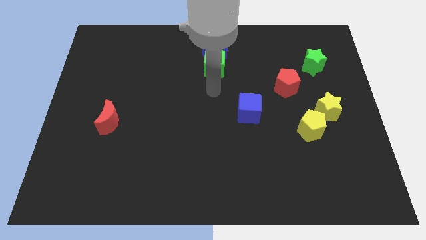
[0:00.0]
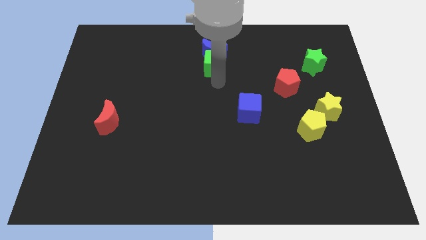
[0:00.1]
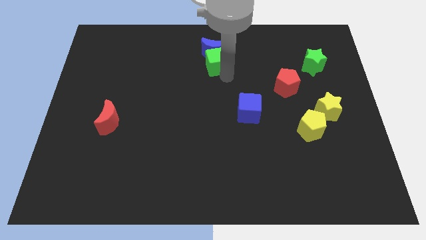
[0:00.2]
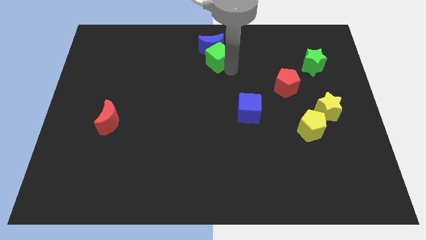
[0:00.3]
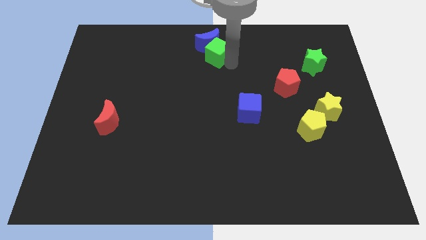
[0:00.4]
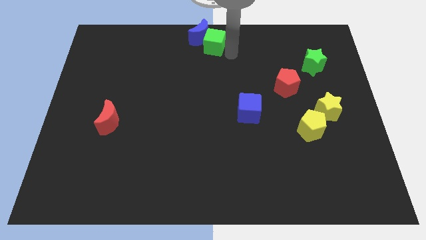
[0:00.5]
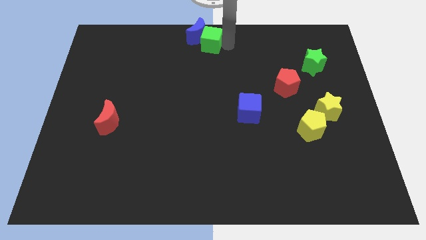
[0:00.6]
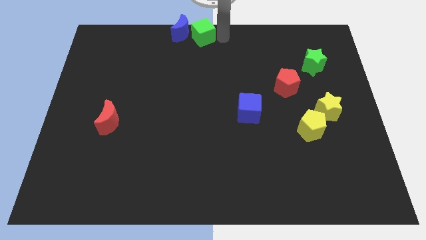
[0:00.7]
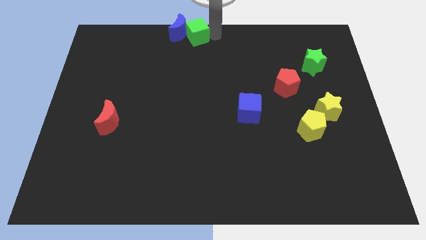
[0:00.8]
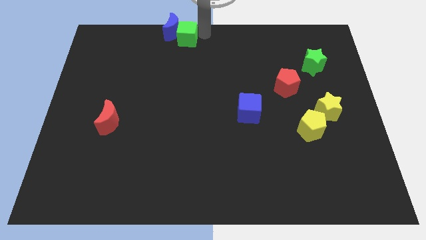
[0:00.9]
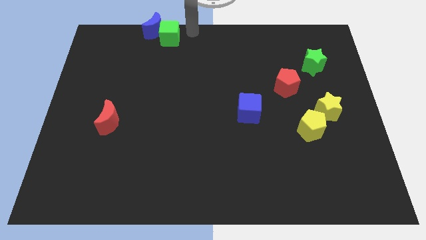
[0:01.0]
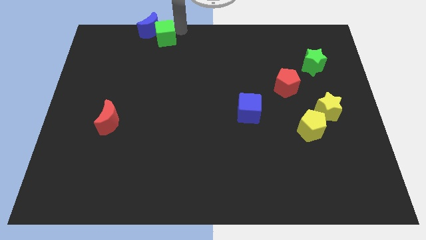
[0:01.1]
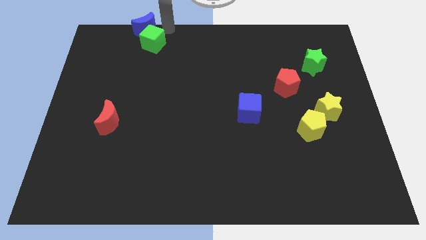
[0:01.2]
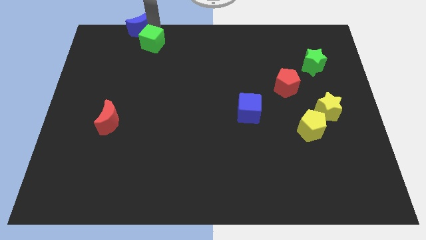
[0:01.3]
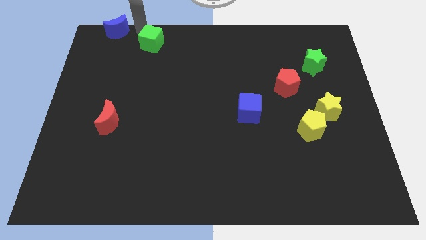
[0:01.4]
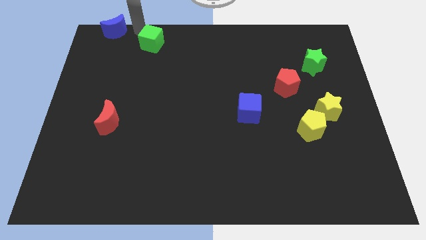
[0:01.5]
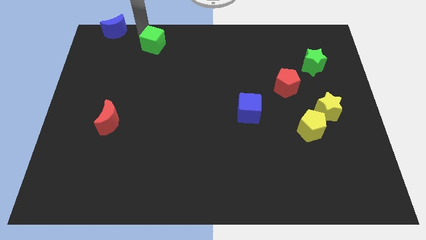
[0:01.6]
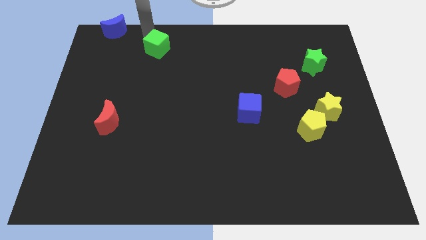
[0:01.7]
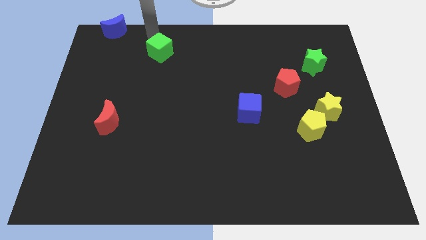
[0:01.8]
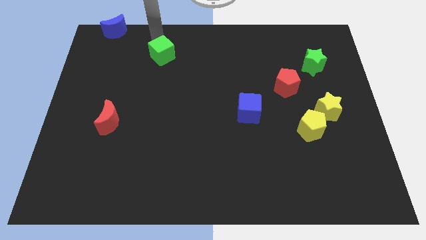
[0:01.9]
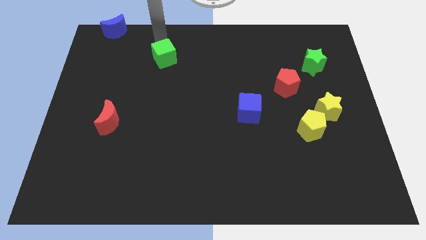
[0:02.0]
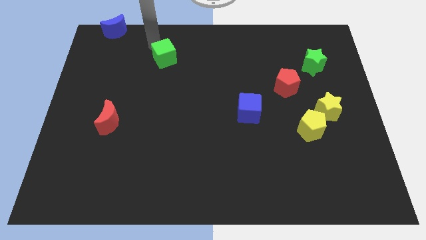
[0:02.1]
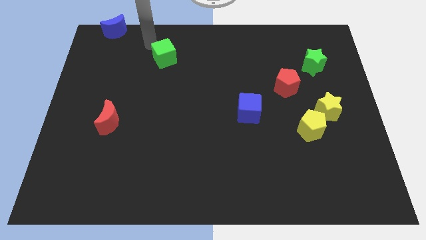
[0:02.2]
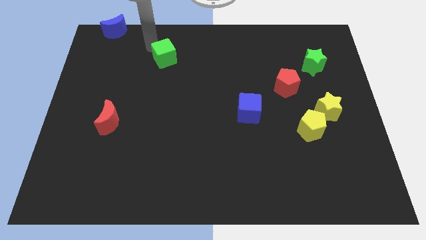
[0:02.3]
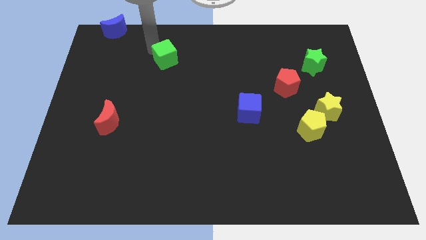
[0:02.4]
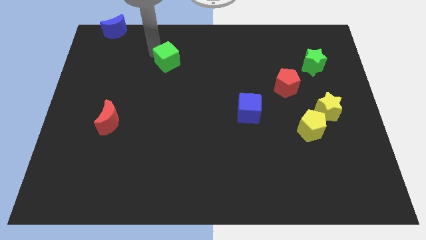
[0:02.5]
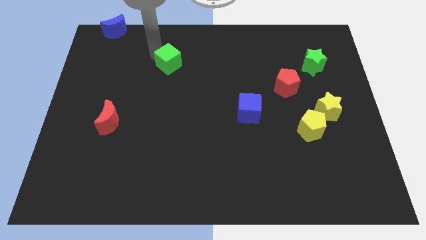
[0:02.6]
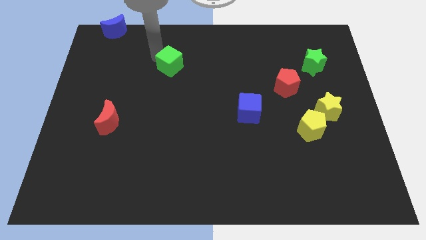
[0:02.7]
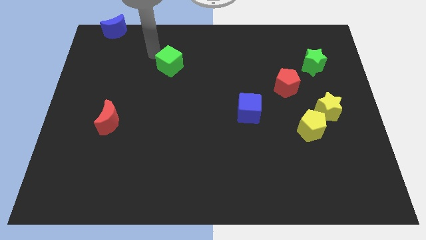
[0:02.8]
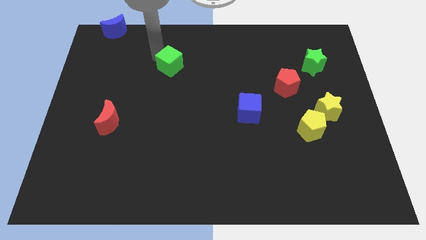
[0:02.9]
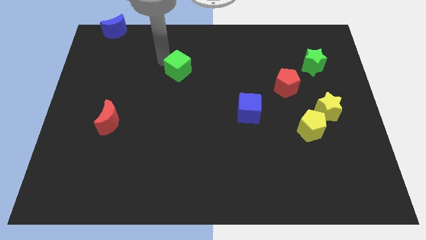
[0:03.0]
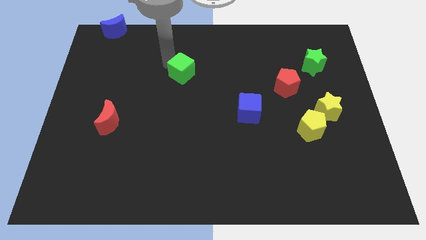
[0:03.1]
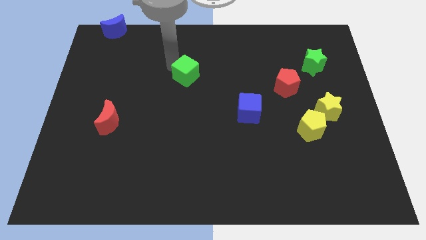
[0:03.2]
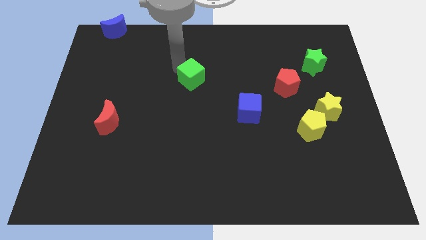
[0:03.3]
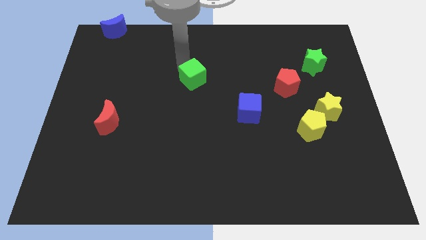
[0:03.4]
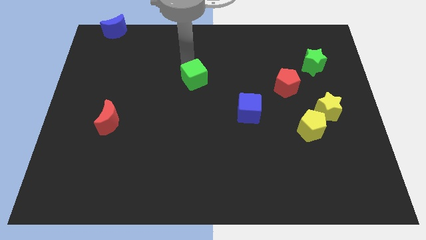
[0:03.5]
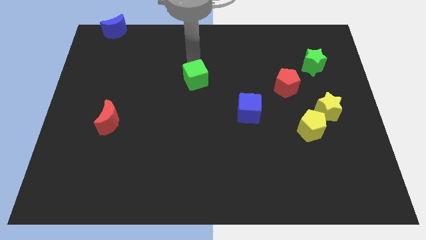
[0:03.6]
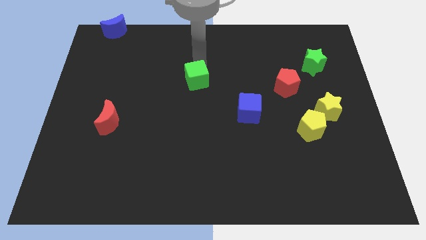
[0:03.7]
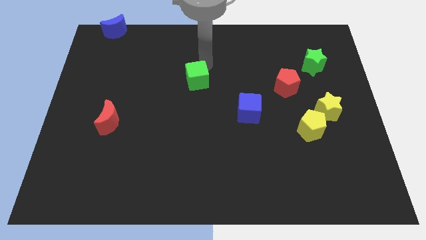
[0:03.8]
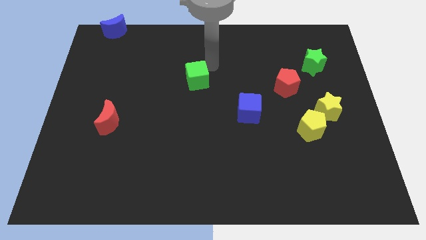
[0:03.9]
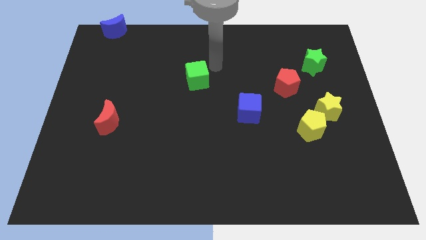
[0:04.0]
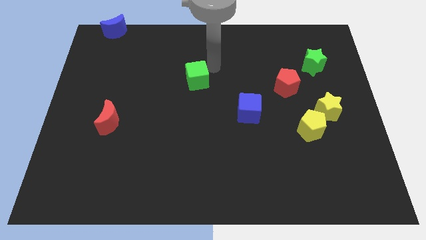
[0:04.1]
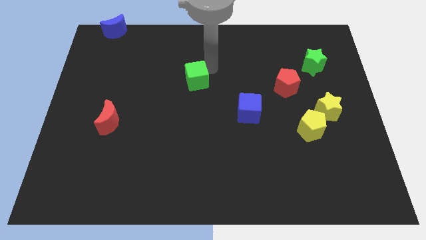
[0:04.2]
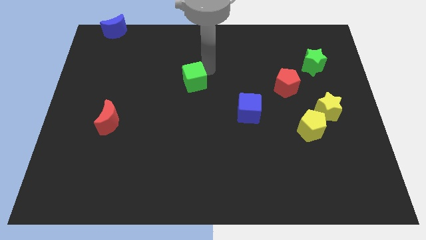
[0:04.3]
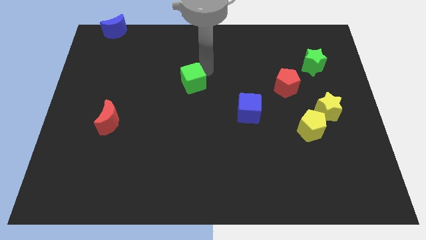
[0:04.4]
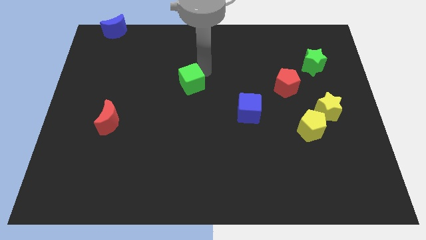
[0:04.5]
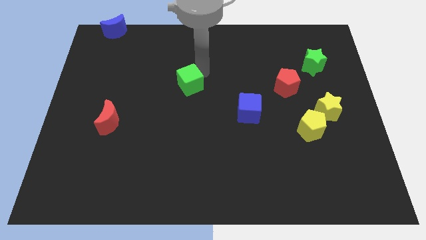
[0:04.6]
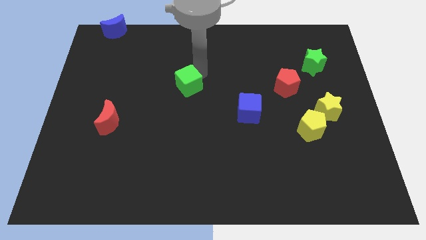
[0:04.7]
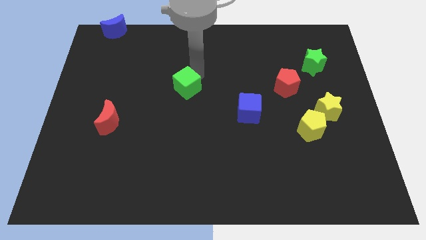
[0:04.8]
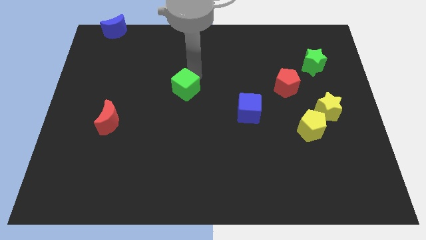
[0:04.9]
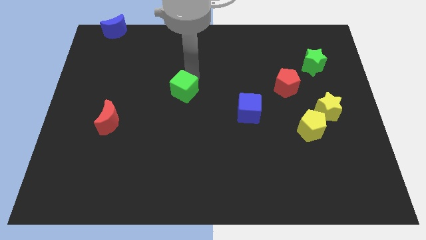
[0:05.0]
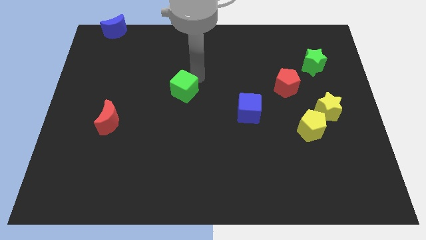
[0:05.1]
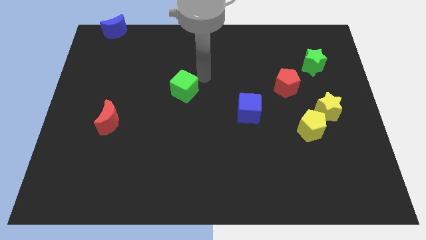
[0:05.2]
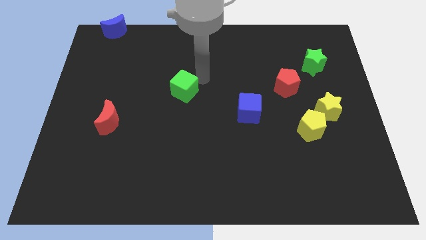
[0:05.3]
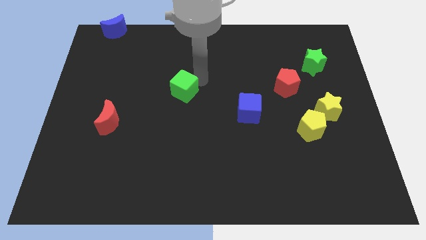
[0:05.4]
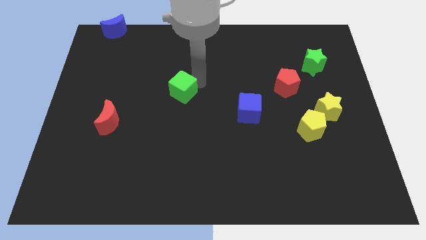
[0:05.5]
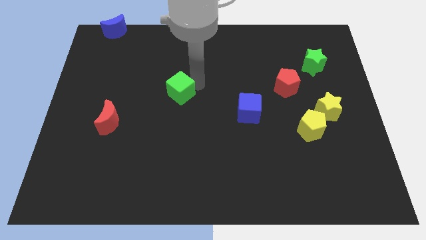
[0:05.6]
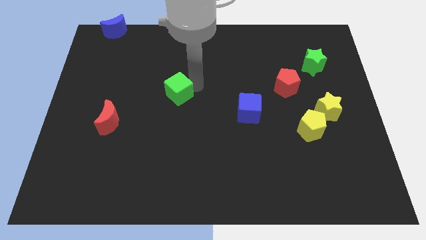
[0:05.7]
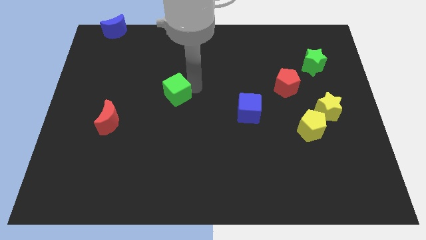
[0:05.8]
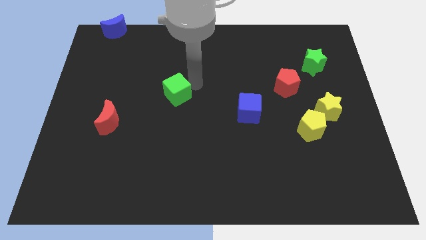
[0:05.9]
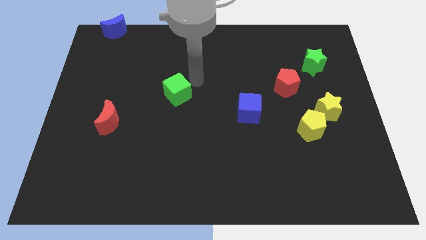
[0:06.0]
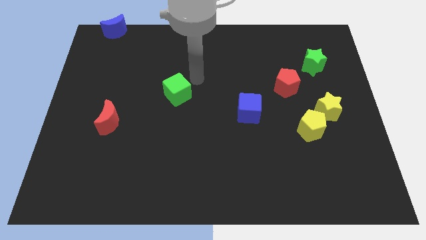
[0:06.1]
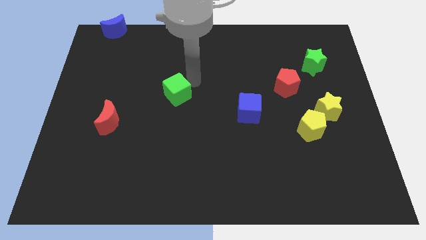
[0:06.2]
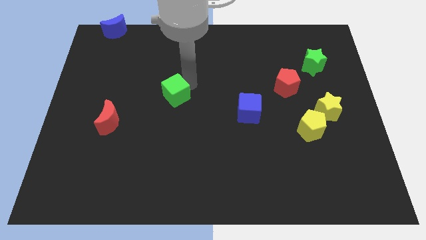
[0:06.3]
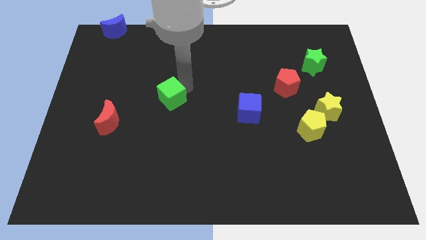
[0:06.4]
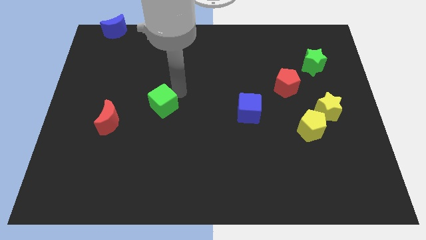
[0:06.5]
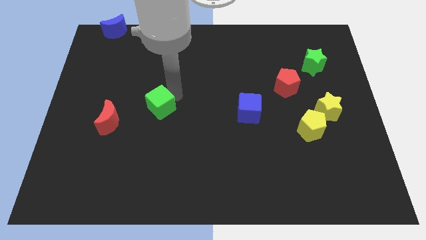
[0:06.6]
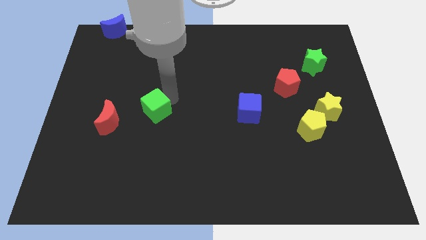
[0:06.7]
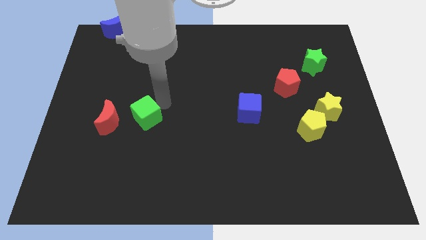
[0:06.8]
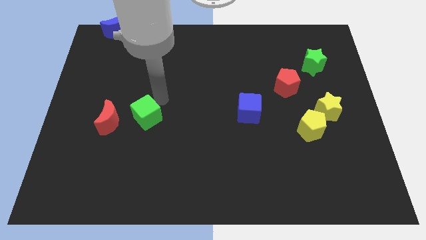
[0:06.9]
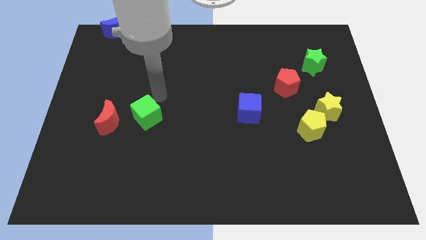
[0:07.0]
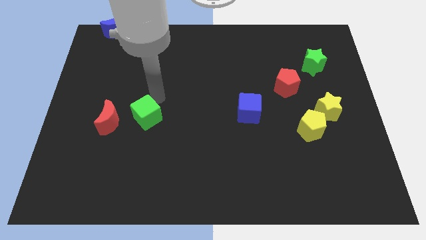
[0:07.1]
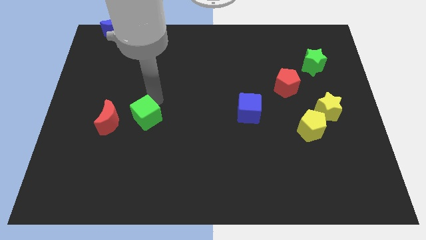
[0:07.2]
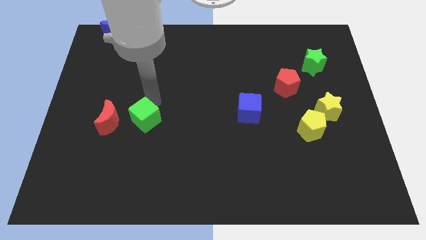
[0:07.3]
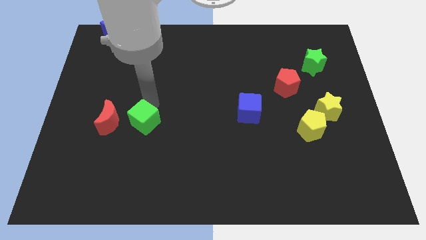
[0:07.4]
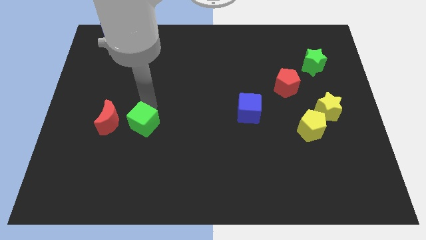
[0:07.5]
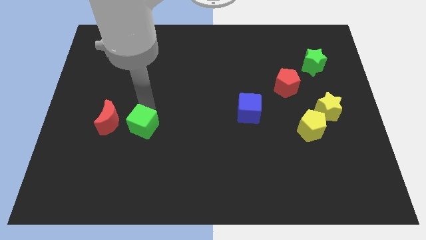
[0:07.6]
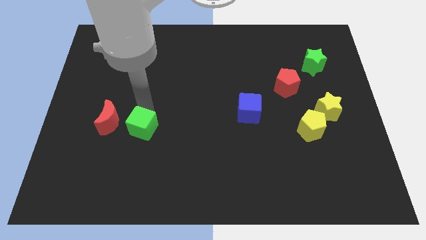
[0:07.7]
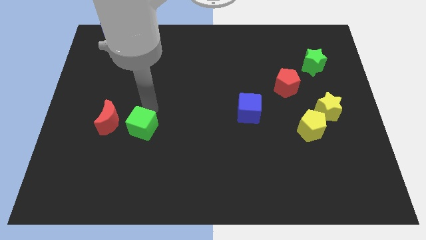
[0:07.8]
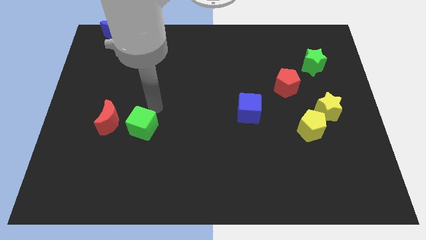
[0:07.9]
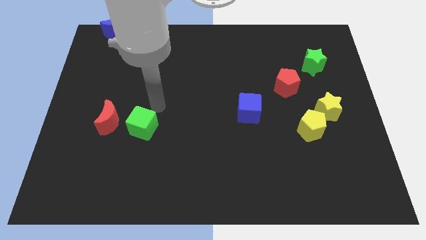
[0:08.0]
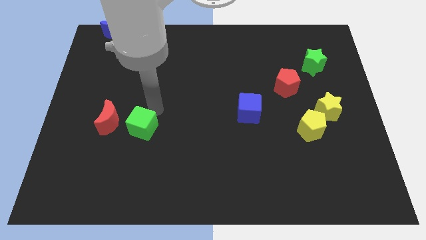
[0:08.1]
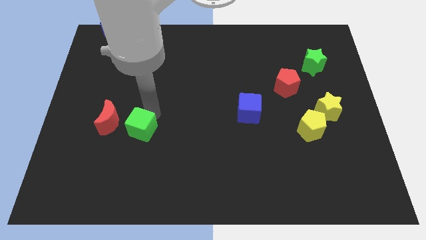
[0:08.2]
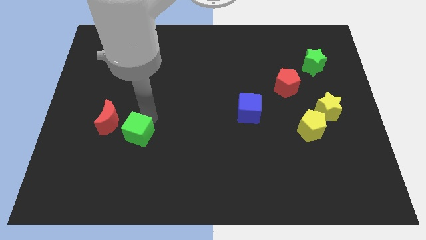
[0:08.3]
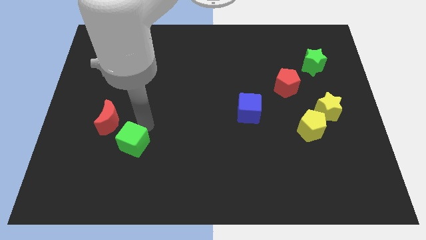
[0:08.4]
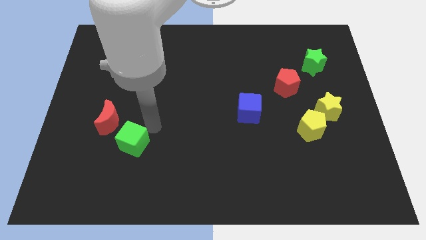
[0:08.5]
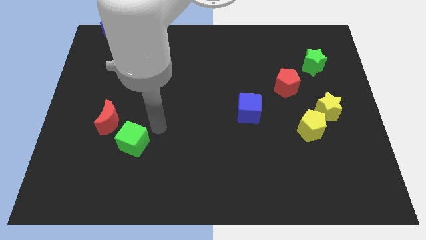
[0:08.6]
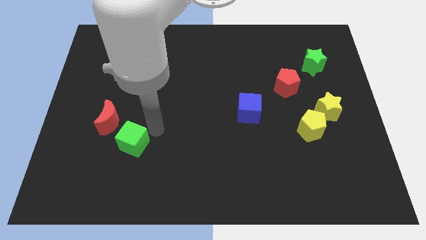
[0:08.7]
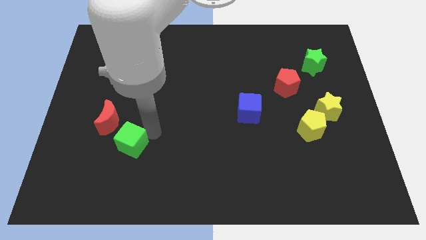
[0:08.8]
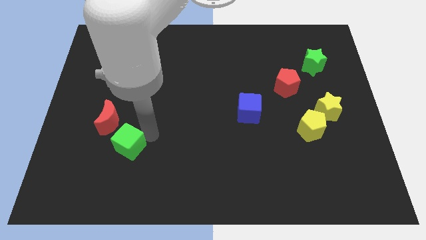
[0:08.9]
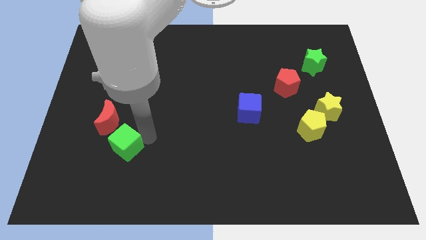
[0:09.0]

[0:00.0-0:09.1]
move the green cube to the bottom of the red moon
